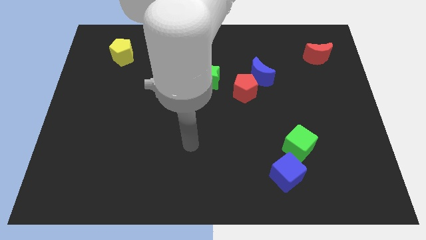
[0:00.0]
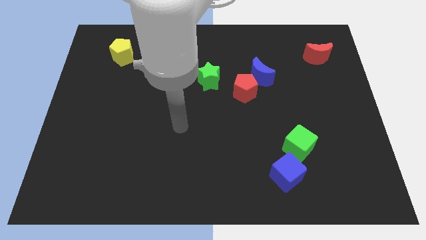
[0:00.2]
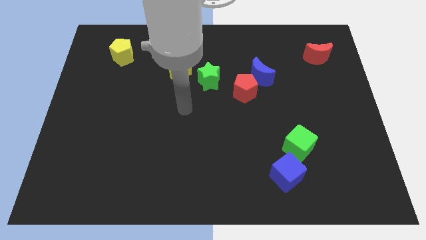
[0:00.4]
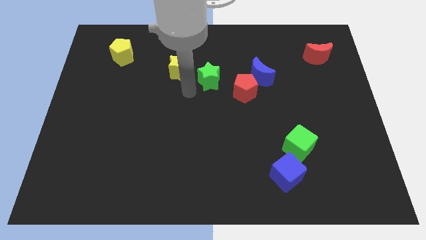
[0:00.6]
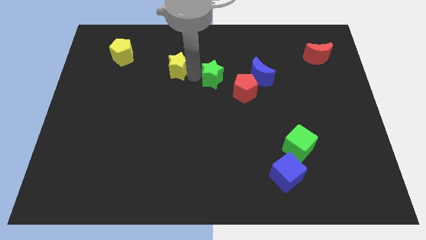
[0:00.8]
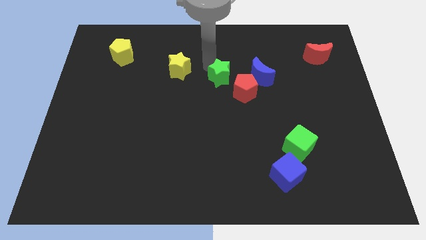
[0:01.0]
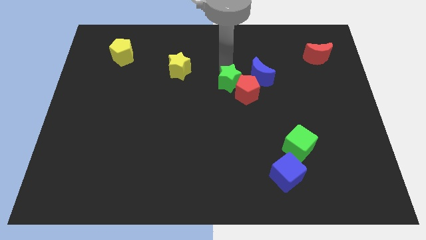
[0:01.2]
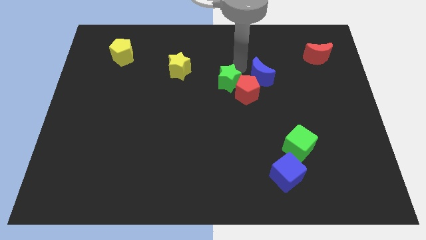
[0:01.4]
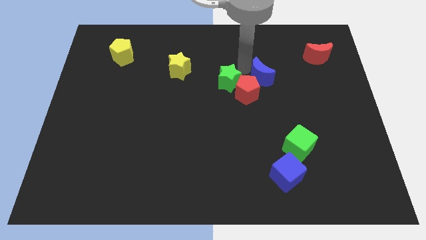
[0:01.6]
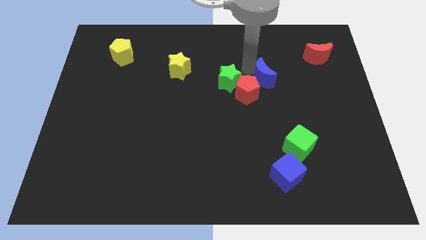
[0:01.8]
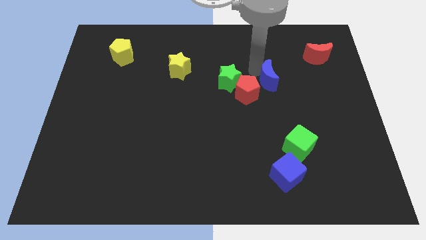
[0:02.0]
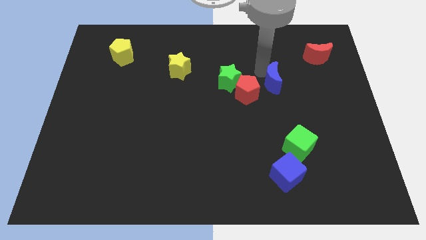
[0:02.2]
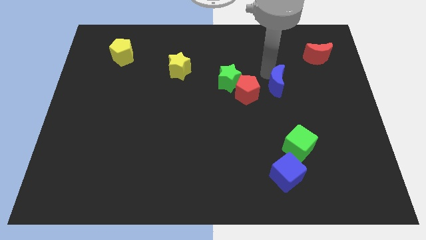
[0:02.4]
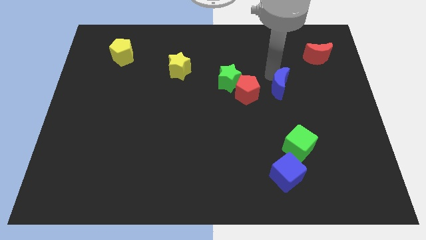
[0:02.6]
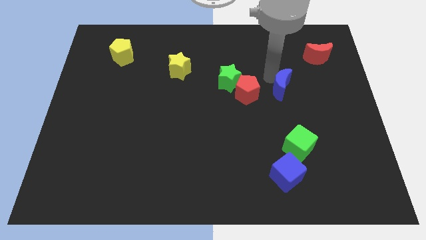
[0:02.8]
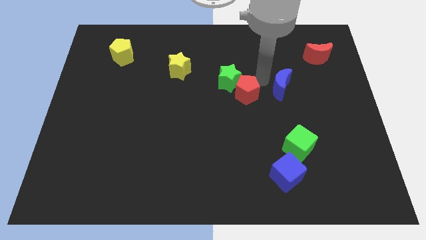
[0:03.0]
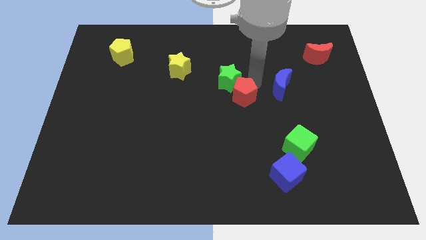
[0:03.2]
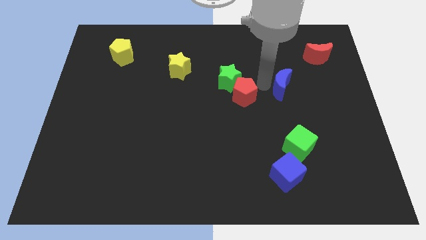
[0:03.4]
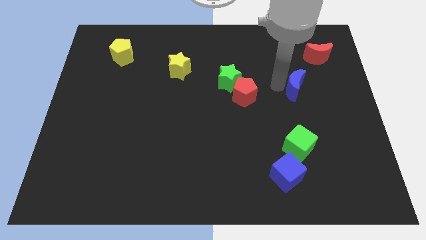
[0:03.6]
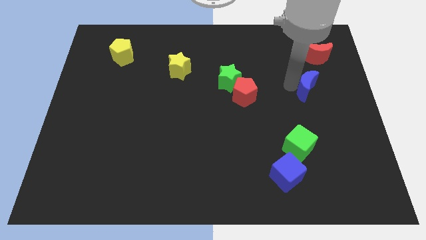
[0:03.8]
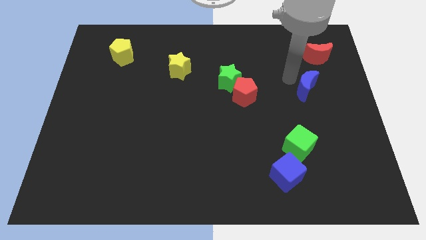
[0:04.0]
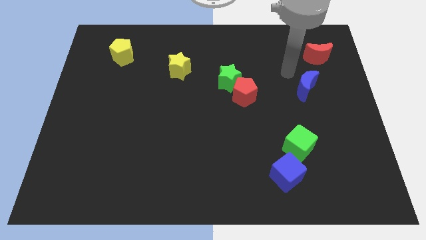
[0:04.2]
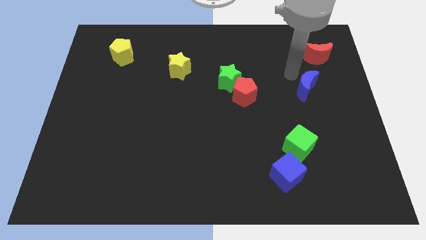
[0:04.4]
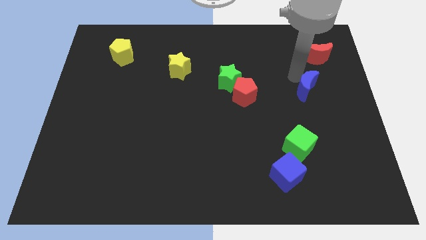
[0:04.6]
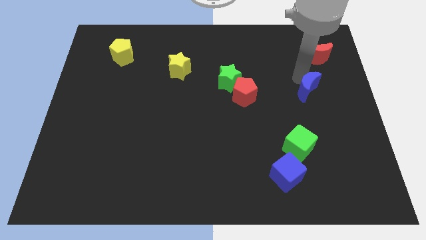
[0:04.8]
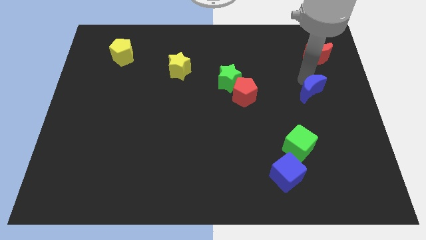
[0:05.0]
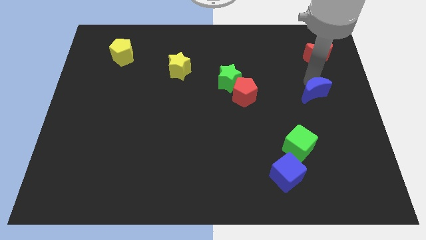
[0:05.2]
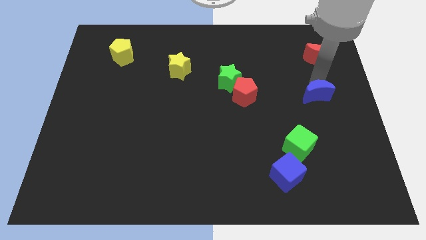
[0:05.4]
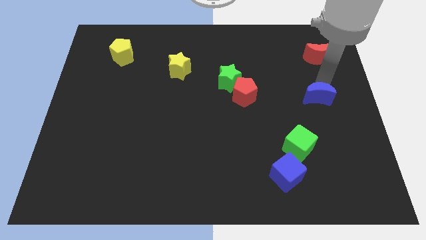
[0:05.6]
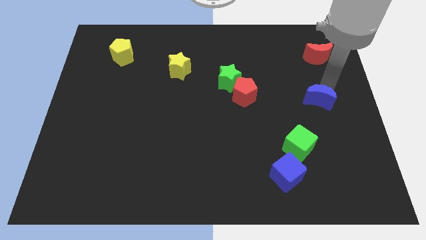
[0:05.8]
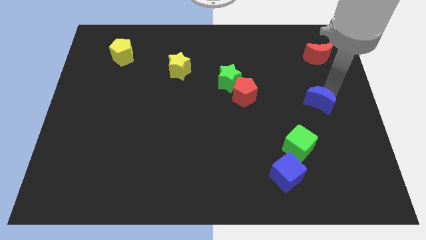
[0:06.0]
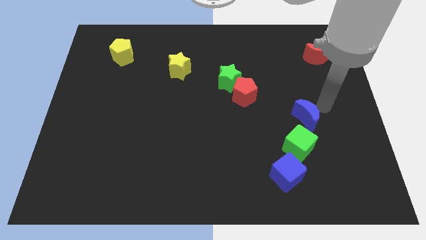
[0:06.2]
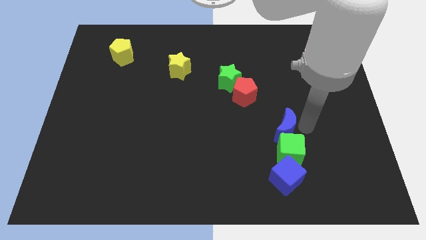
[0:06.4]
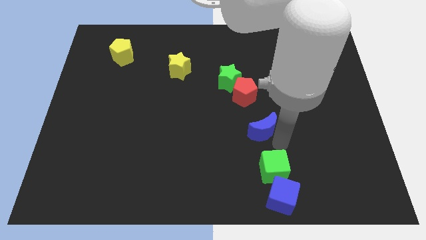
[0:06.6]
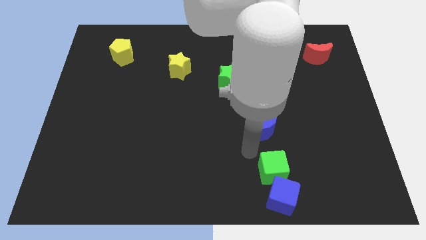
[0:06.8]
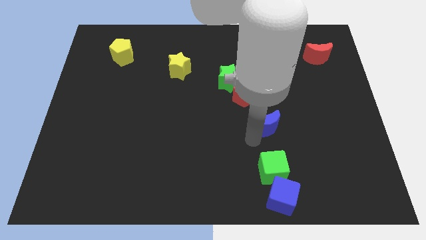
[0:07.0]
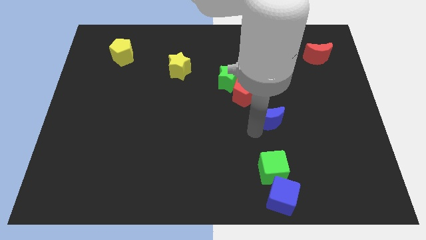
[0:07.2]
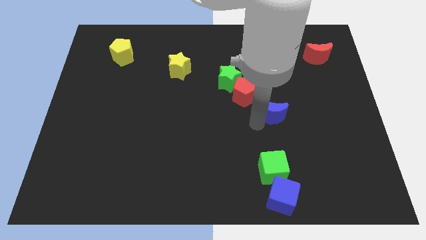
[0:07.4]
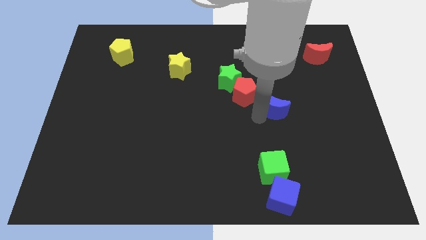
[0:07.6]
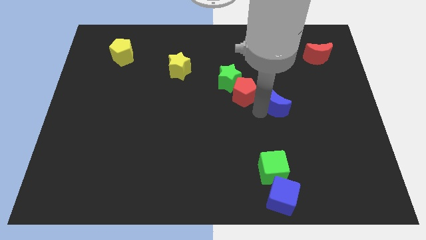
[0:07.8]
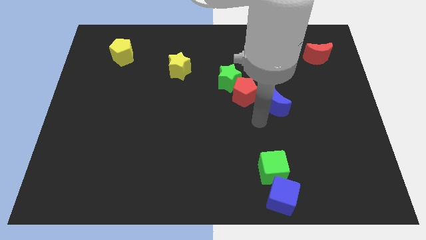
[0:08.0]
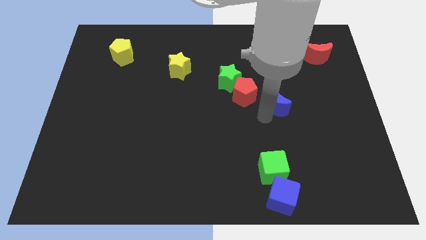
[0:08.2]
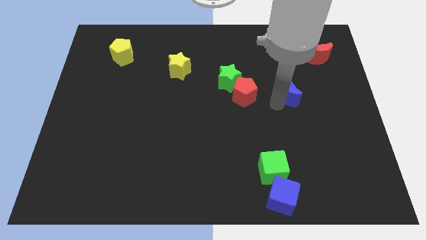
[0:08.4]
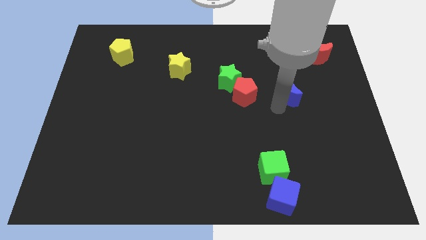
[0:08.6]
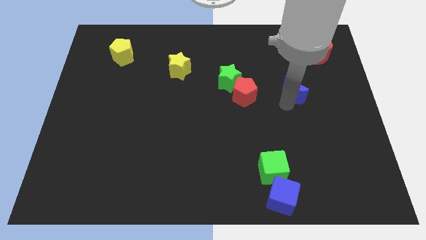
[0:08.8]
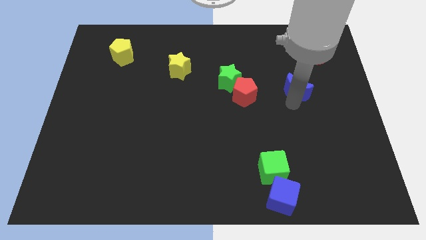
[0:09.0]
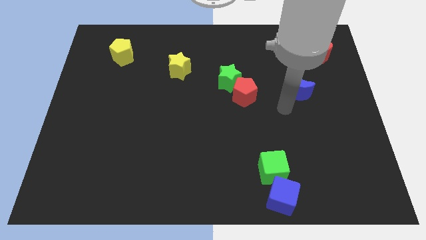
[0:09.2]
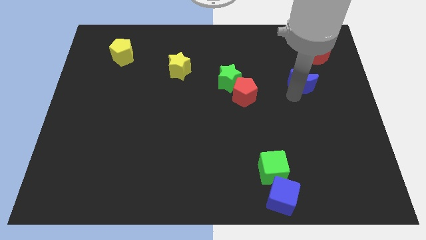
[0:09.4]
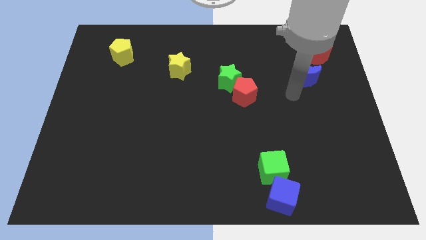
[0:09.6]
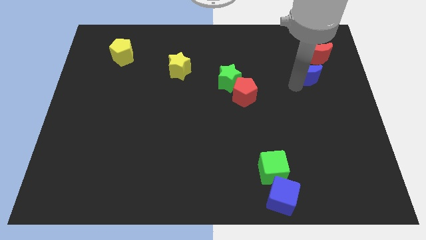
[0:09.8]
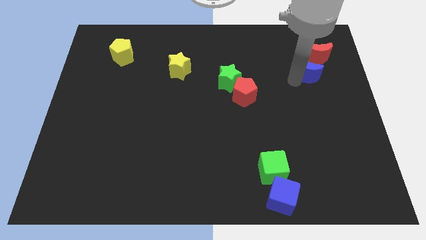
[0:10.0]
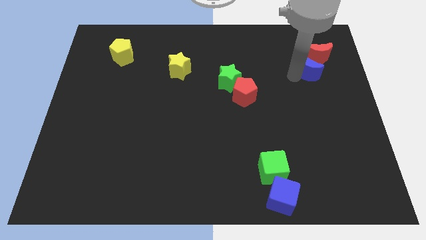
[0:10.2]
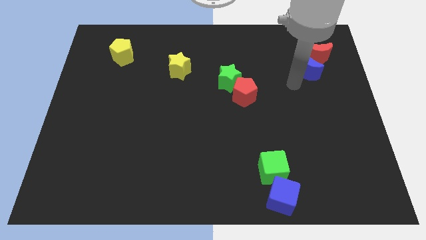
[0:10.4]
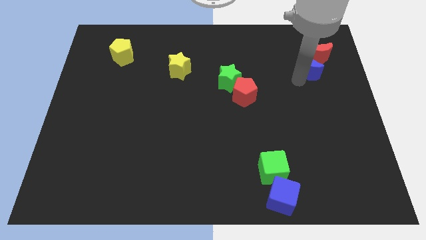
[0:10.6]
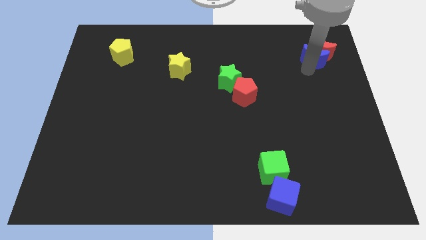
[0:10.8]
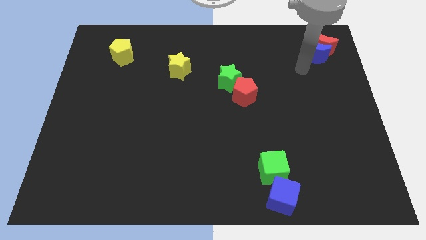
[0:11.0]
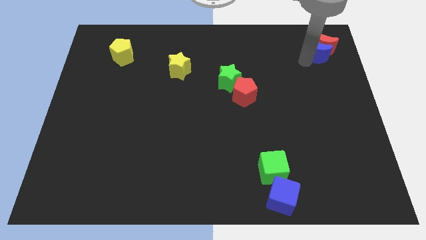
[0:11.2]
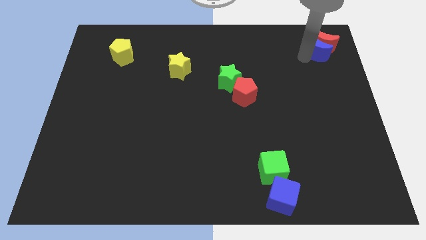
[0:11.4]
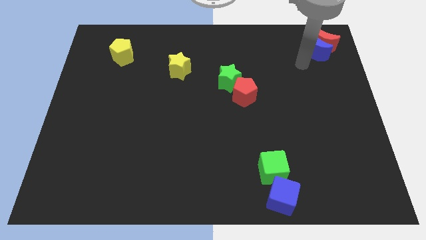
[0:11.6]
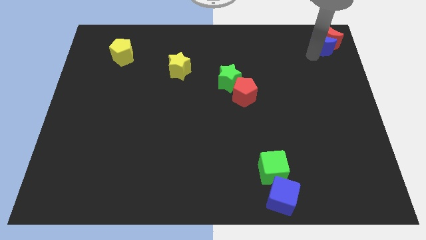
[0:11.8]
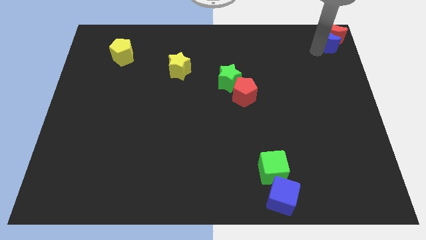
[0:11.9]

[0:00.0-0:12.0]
push the blue moon to the upper right corner

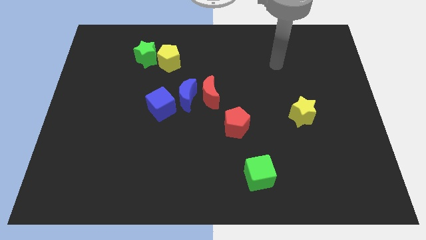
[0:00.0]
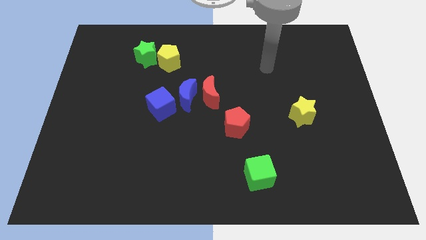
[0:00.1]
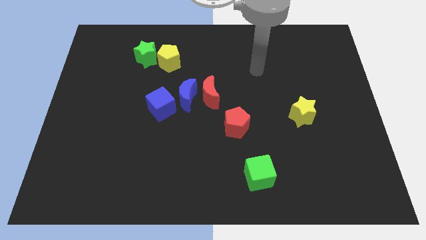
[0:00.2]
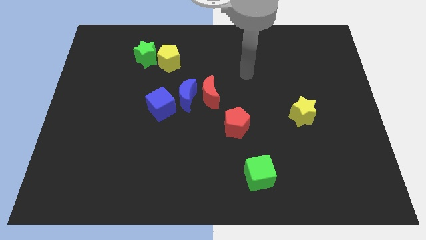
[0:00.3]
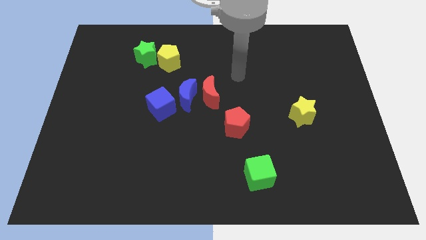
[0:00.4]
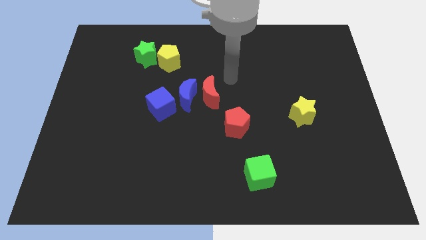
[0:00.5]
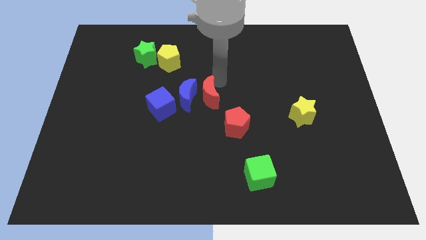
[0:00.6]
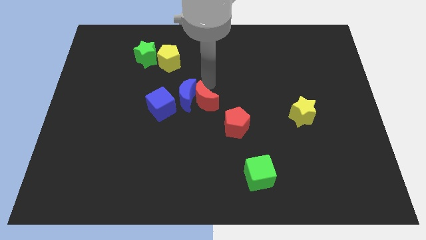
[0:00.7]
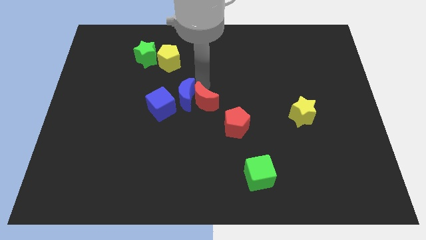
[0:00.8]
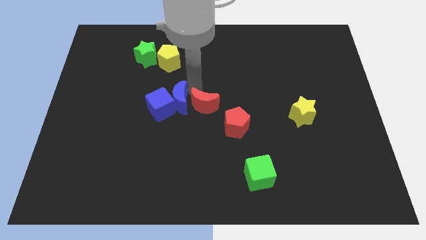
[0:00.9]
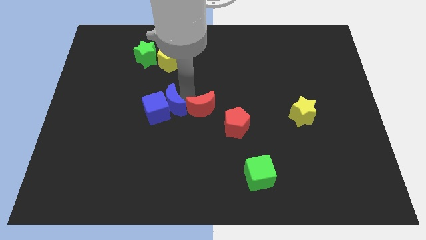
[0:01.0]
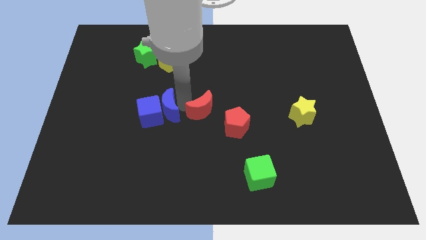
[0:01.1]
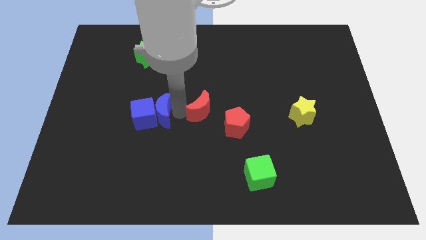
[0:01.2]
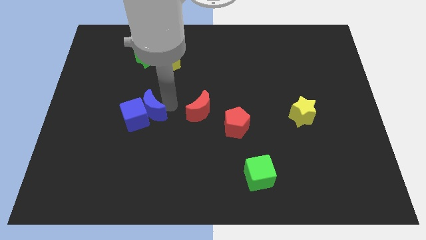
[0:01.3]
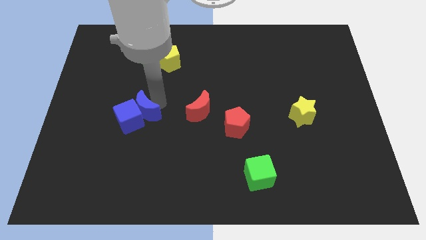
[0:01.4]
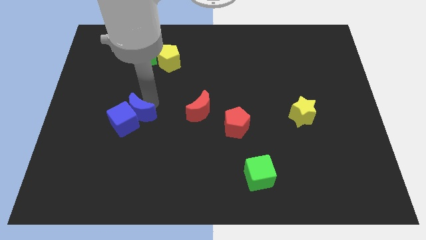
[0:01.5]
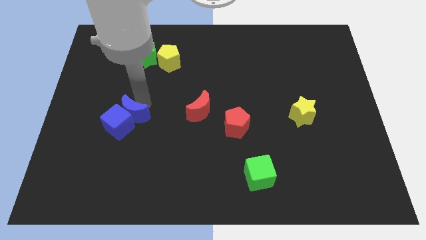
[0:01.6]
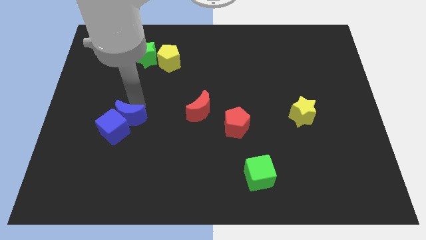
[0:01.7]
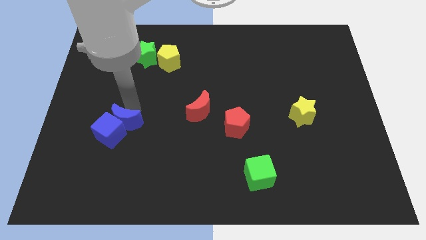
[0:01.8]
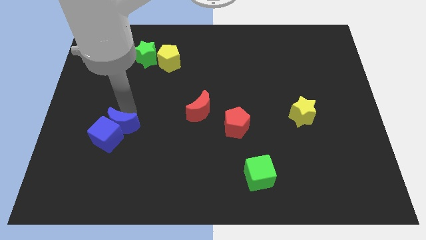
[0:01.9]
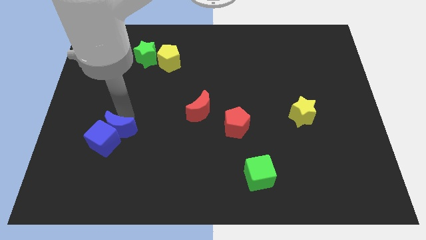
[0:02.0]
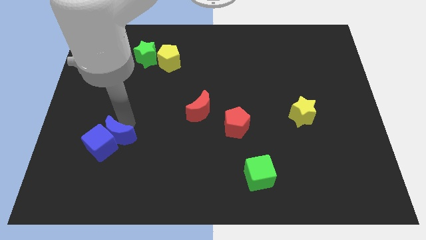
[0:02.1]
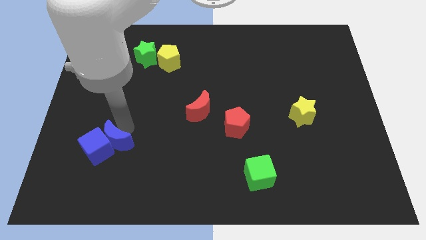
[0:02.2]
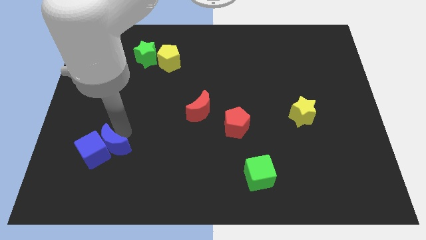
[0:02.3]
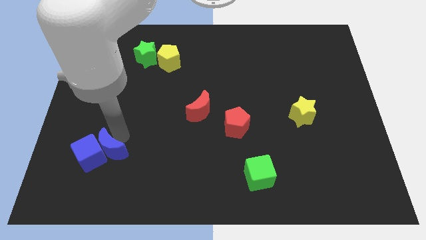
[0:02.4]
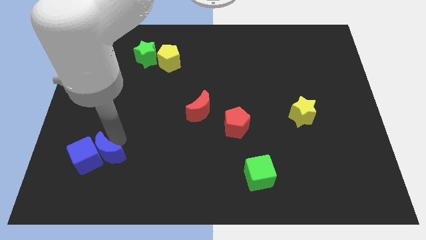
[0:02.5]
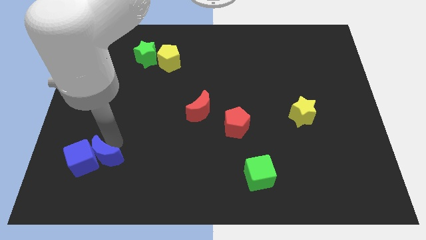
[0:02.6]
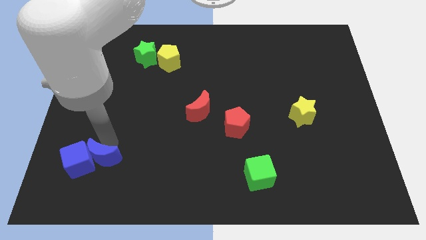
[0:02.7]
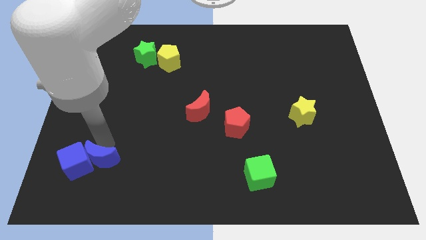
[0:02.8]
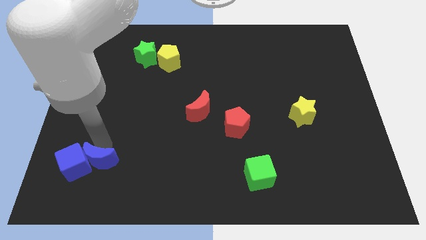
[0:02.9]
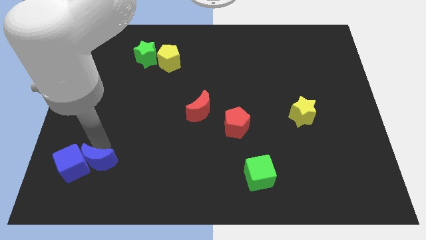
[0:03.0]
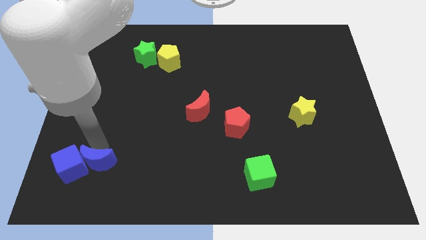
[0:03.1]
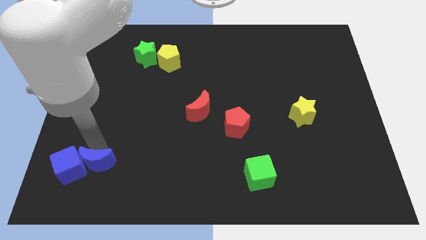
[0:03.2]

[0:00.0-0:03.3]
move the blue cube to the bottom left of the board
